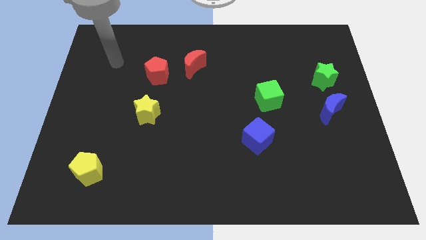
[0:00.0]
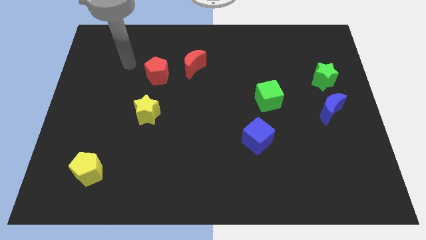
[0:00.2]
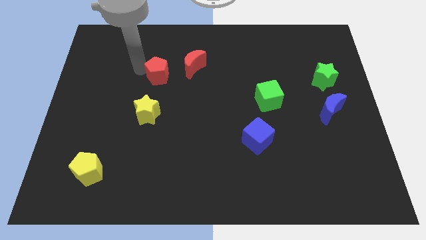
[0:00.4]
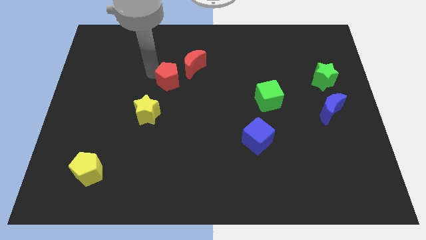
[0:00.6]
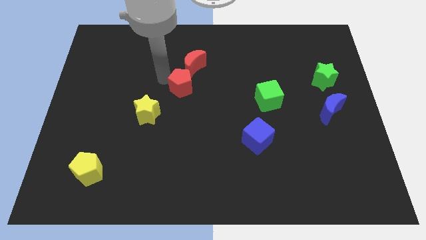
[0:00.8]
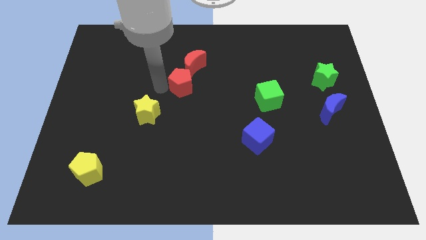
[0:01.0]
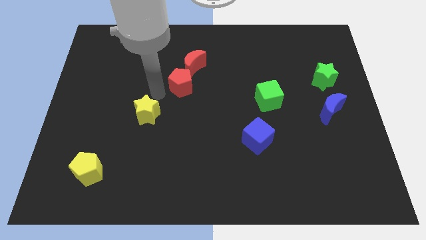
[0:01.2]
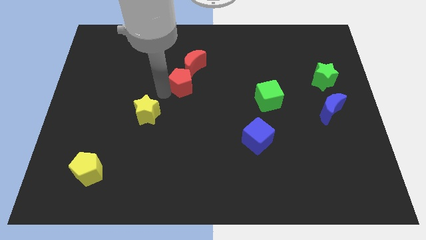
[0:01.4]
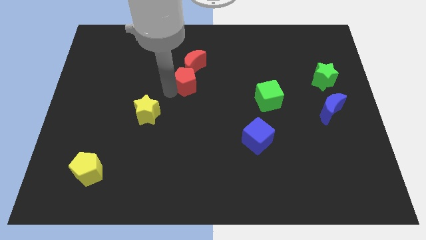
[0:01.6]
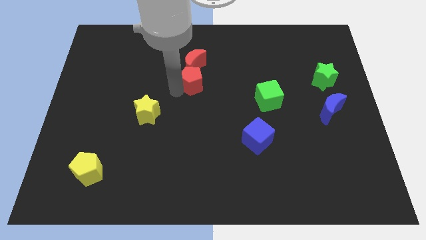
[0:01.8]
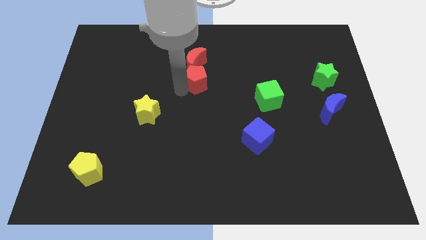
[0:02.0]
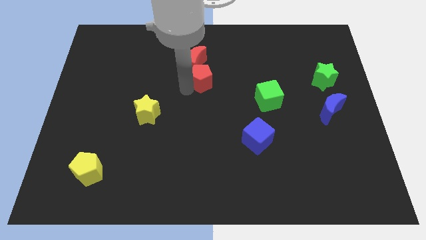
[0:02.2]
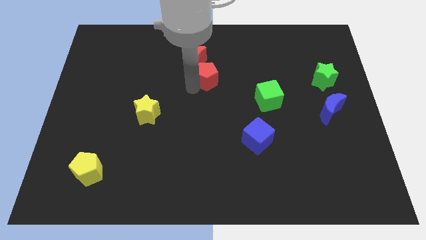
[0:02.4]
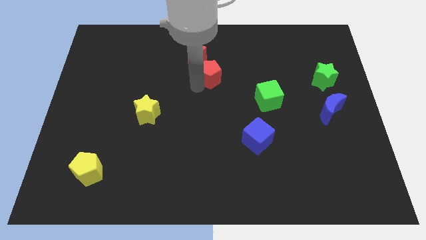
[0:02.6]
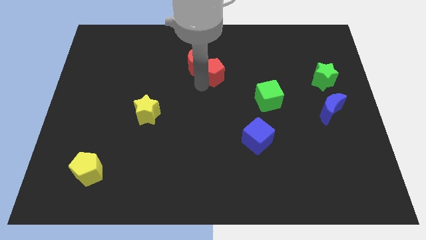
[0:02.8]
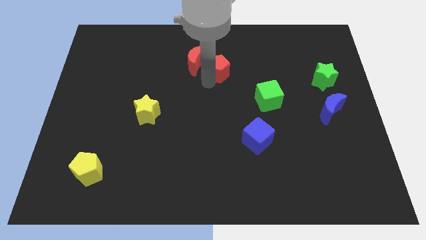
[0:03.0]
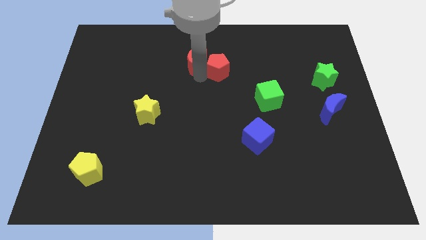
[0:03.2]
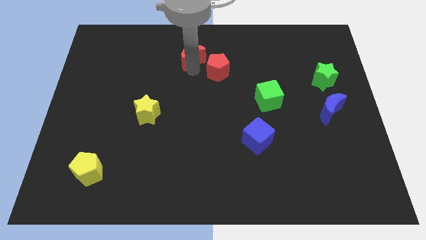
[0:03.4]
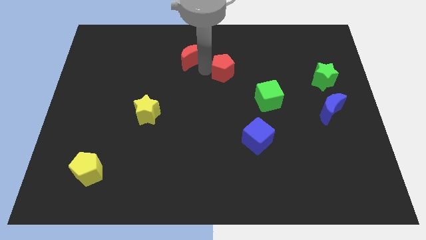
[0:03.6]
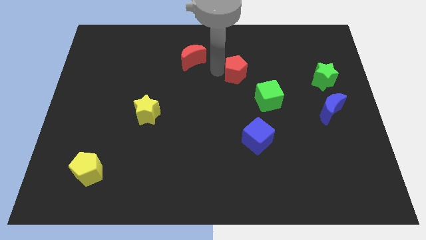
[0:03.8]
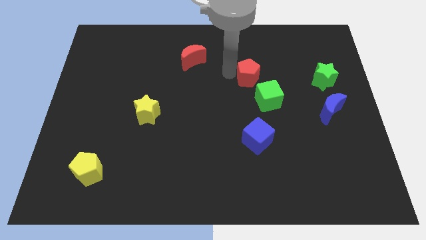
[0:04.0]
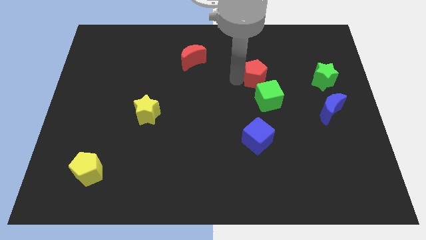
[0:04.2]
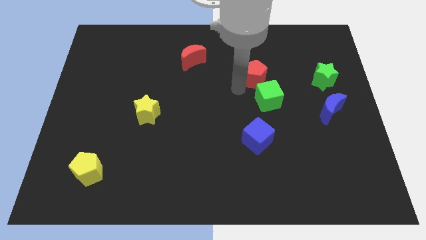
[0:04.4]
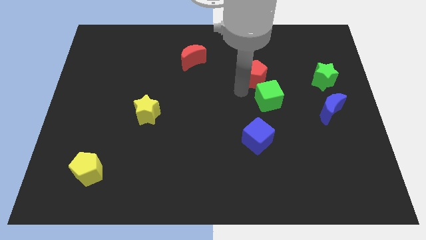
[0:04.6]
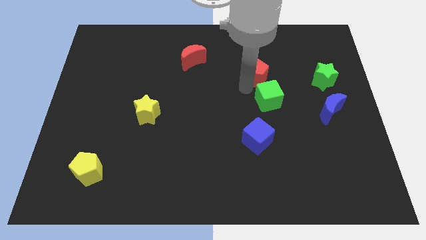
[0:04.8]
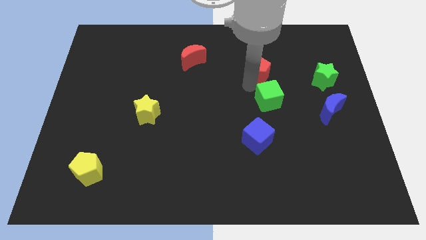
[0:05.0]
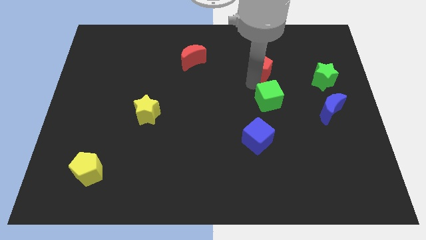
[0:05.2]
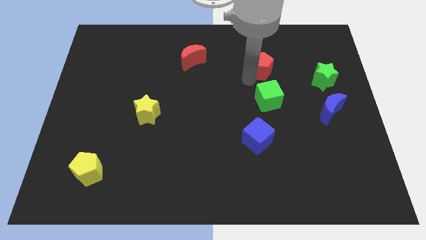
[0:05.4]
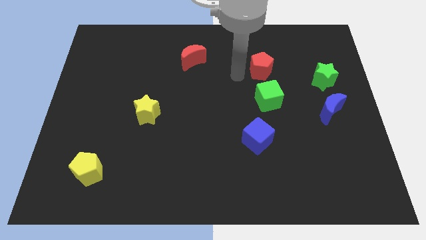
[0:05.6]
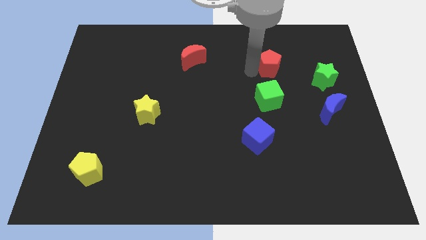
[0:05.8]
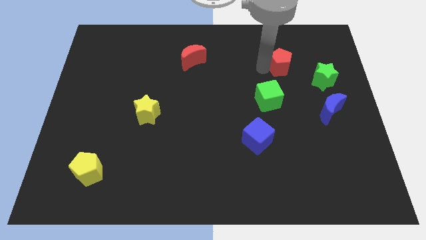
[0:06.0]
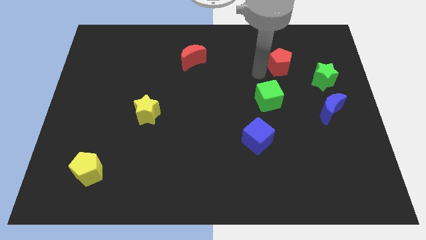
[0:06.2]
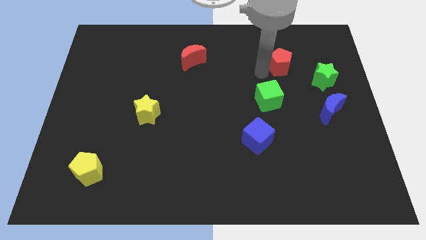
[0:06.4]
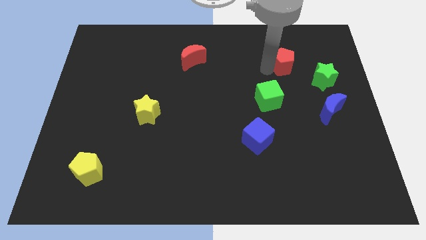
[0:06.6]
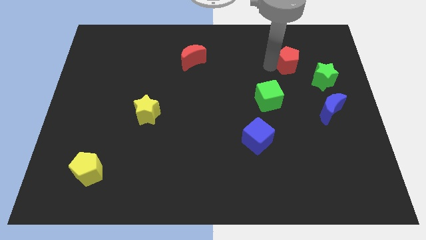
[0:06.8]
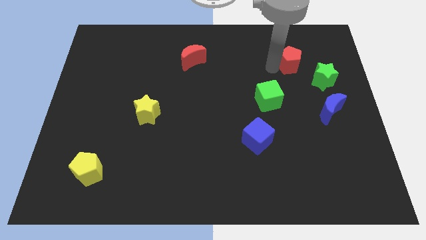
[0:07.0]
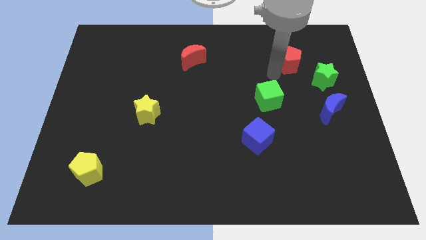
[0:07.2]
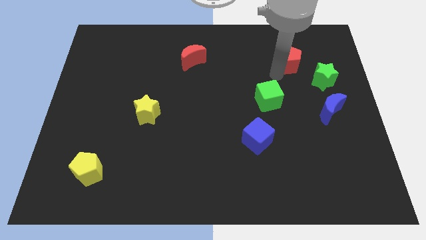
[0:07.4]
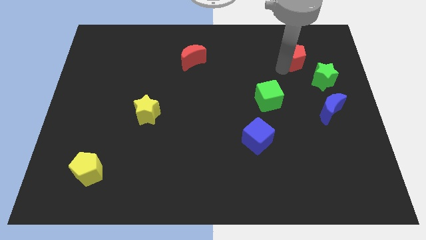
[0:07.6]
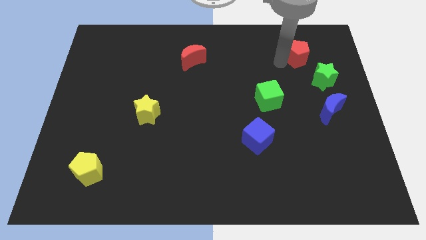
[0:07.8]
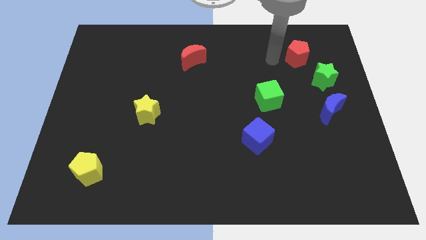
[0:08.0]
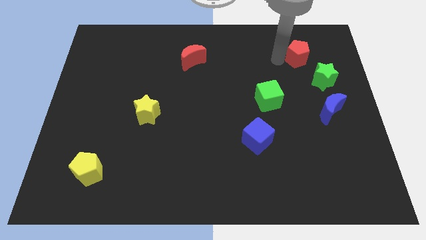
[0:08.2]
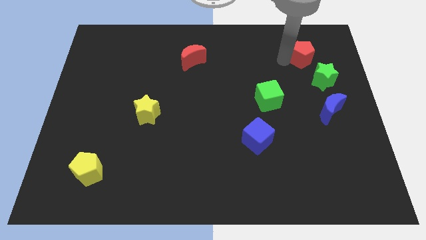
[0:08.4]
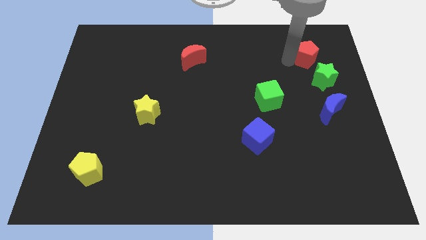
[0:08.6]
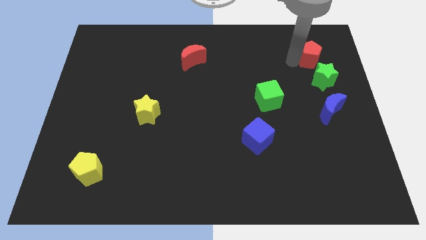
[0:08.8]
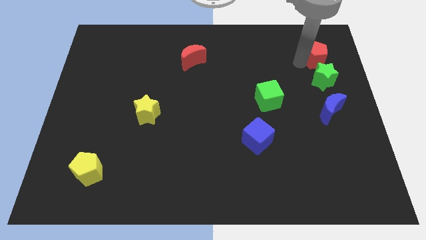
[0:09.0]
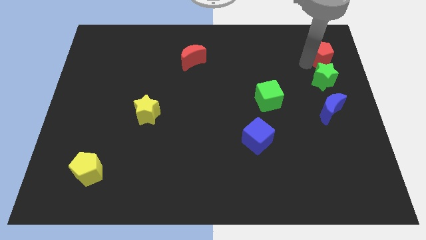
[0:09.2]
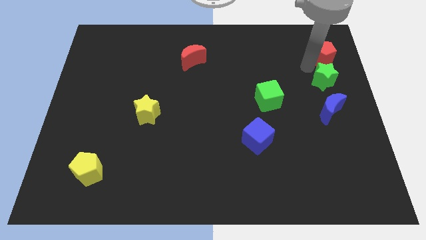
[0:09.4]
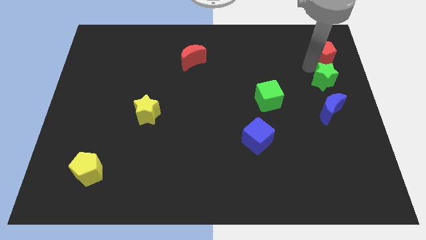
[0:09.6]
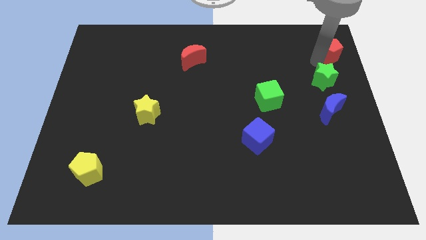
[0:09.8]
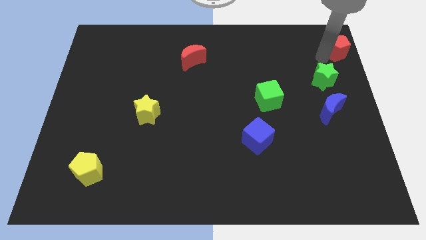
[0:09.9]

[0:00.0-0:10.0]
put the red pentagon to the upper right corner

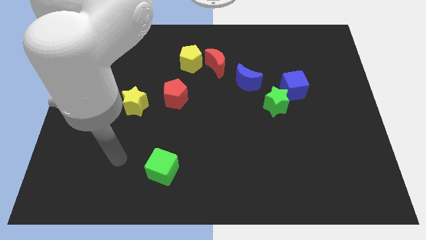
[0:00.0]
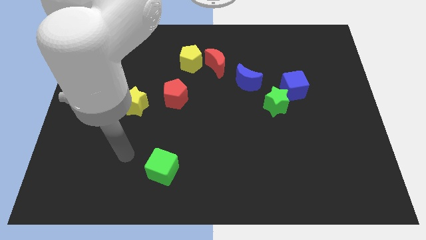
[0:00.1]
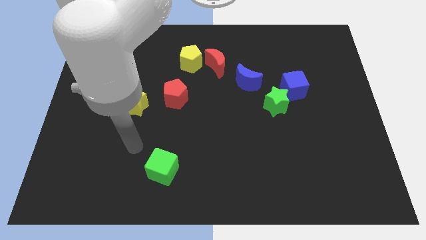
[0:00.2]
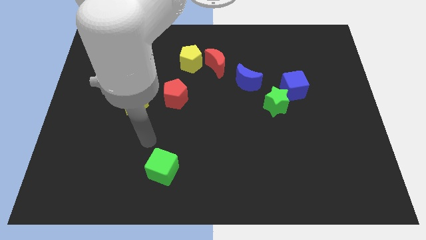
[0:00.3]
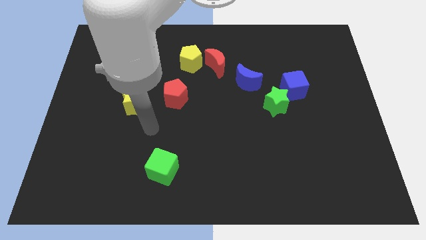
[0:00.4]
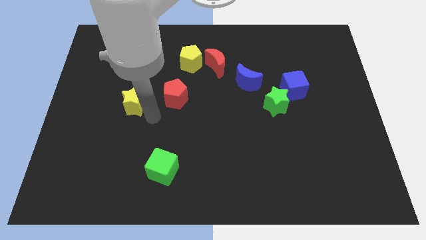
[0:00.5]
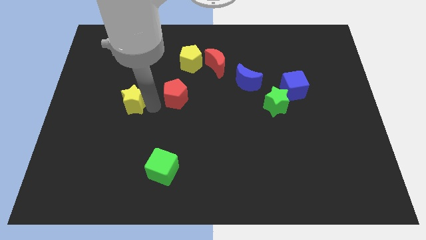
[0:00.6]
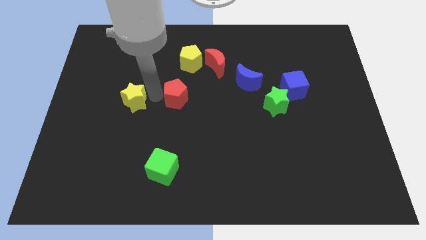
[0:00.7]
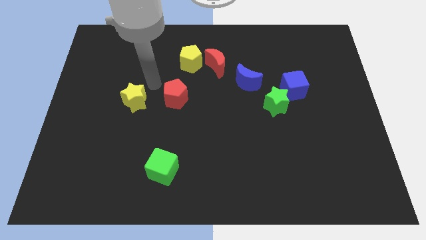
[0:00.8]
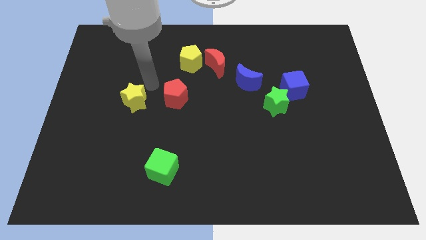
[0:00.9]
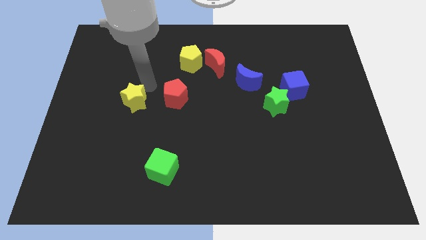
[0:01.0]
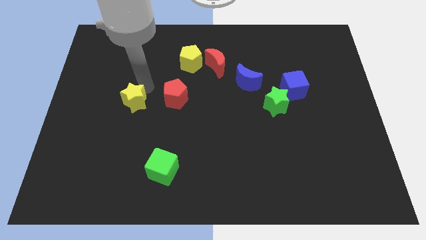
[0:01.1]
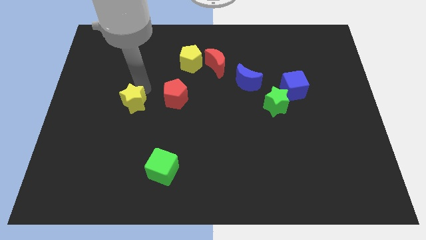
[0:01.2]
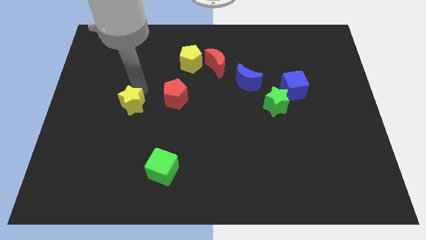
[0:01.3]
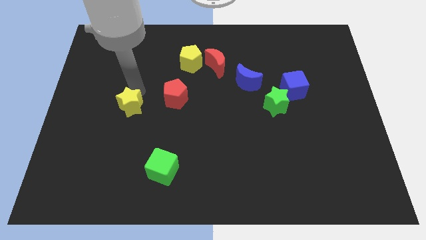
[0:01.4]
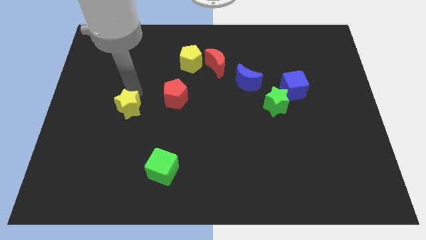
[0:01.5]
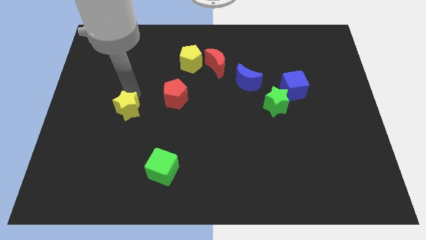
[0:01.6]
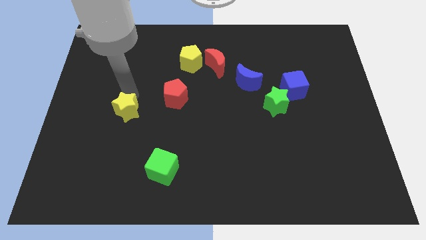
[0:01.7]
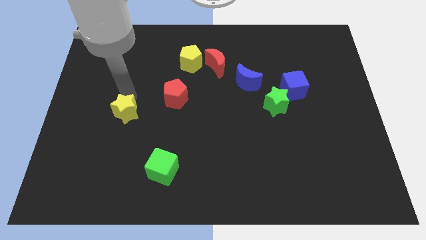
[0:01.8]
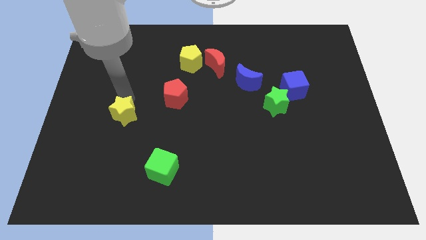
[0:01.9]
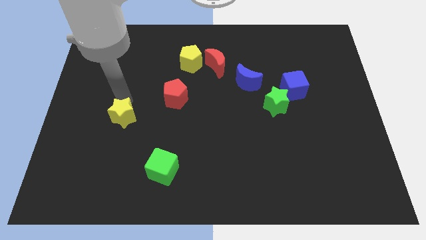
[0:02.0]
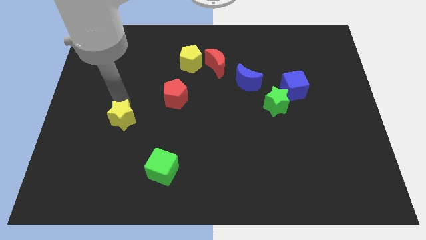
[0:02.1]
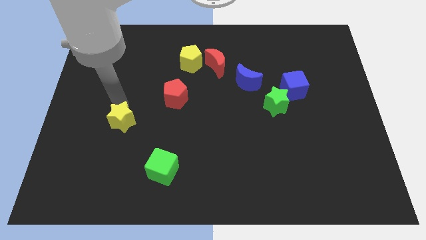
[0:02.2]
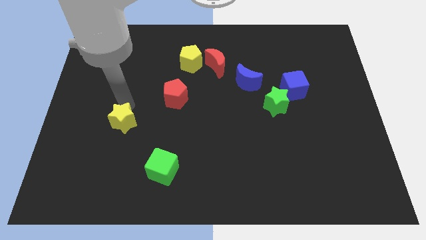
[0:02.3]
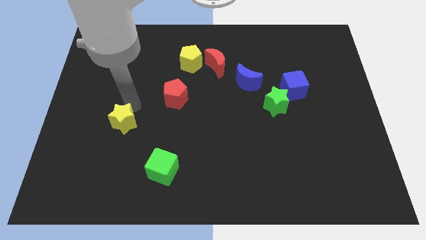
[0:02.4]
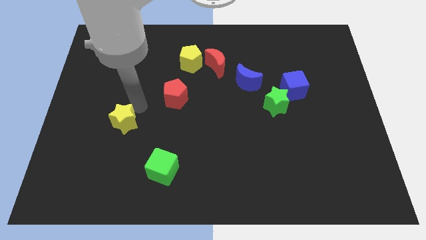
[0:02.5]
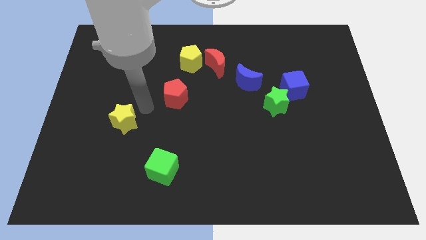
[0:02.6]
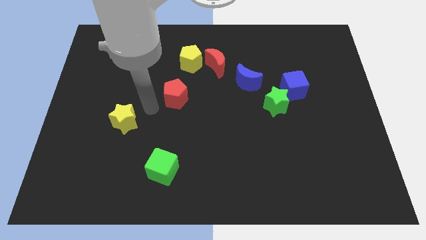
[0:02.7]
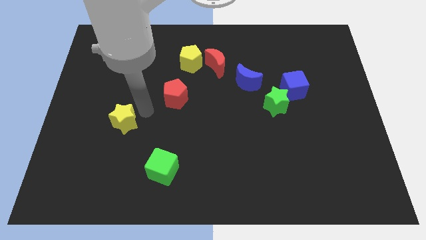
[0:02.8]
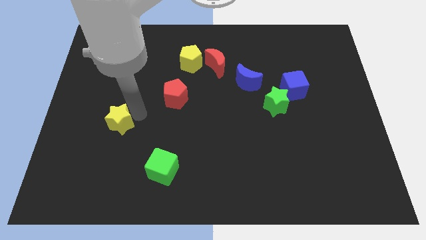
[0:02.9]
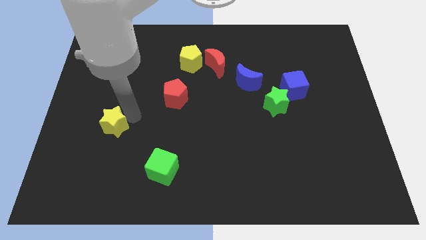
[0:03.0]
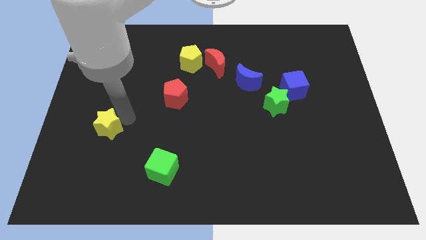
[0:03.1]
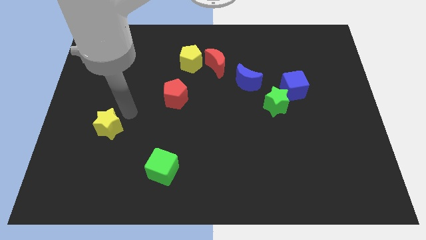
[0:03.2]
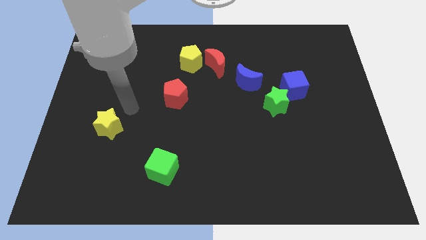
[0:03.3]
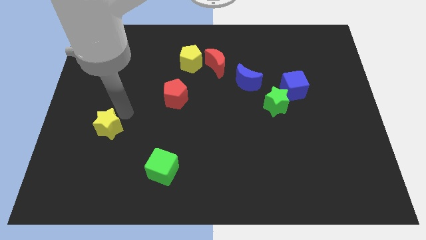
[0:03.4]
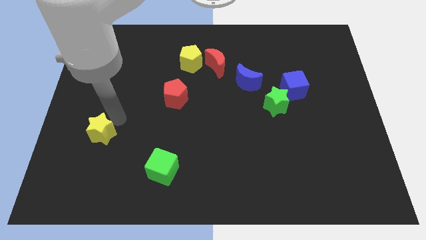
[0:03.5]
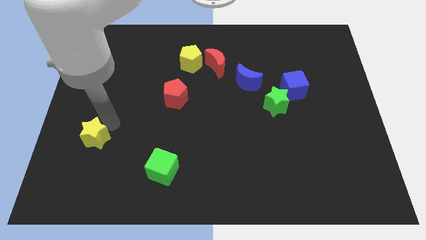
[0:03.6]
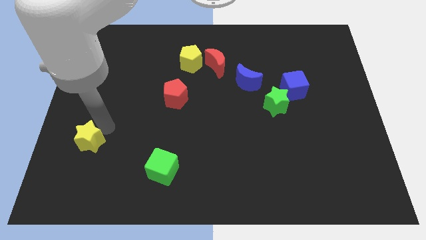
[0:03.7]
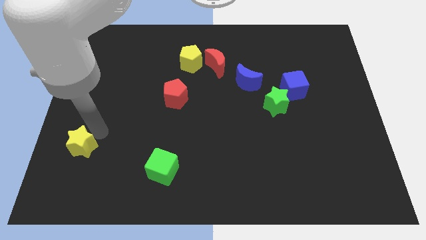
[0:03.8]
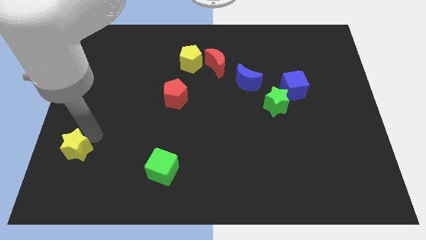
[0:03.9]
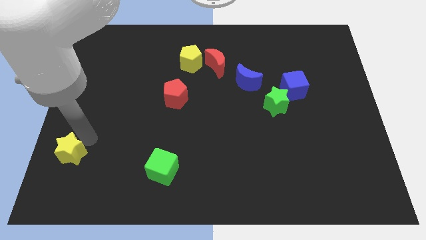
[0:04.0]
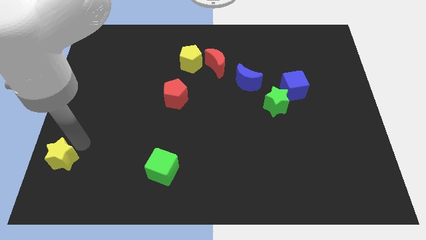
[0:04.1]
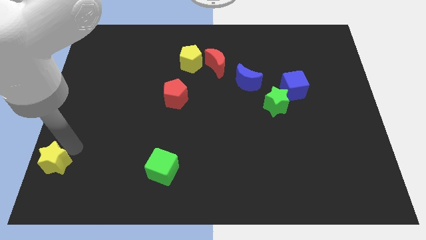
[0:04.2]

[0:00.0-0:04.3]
slide the yellow star to the lower left corner
